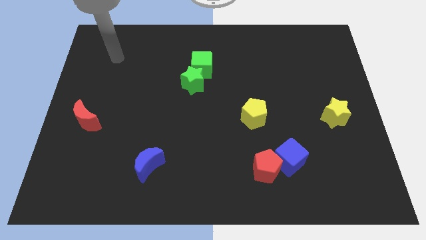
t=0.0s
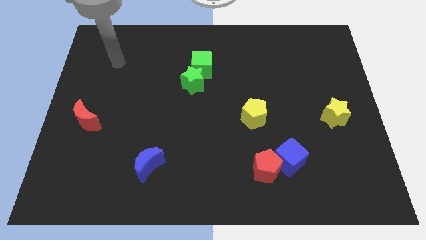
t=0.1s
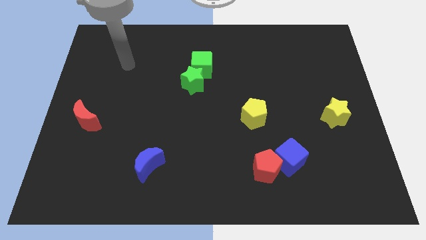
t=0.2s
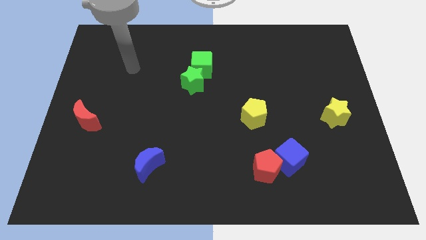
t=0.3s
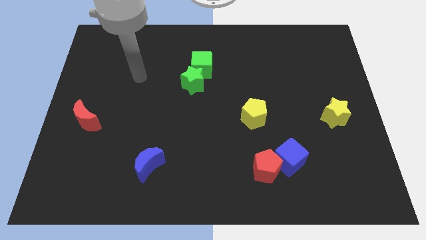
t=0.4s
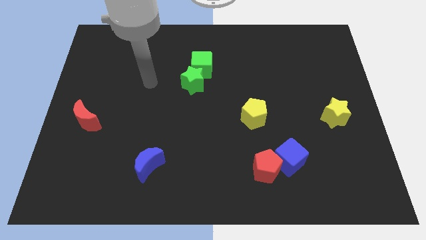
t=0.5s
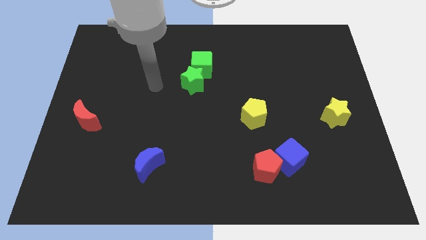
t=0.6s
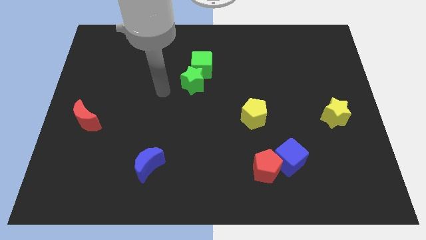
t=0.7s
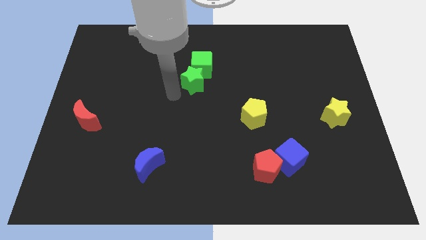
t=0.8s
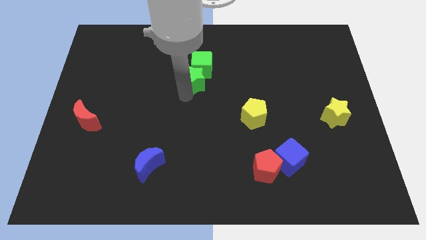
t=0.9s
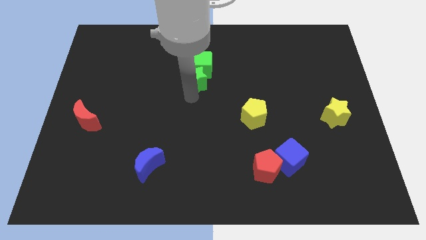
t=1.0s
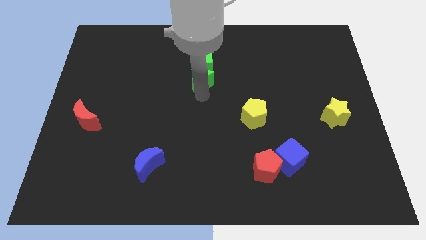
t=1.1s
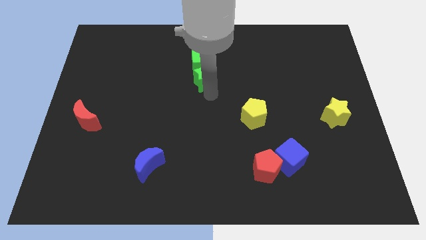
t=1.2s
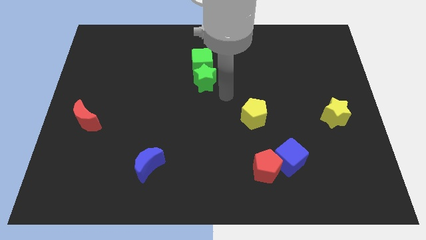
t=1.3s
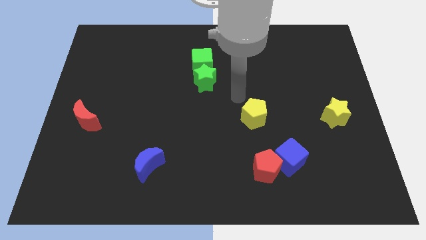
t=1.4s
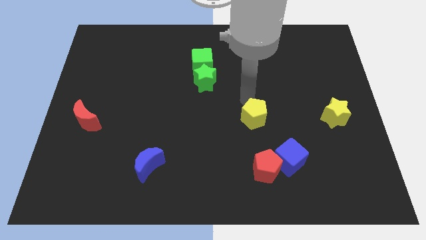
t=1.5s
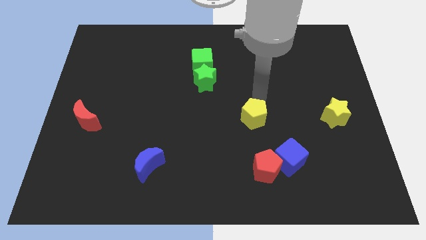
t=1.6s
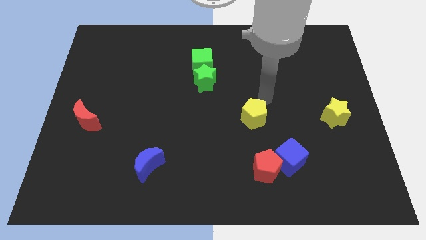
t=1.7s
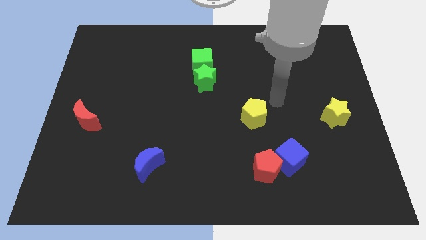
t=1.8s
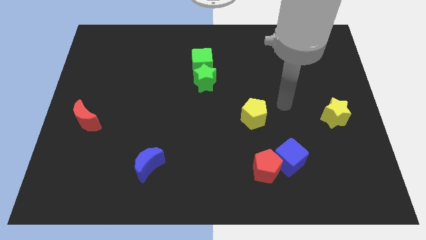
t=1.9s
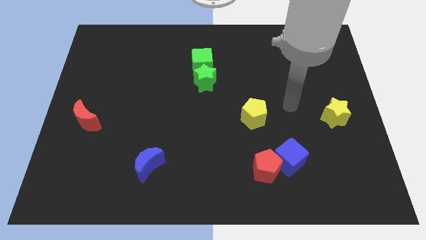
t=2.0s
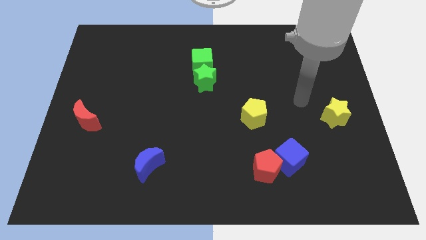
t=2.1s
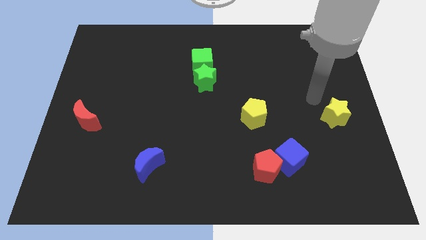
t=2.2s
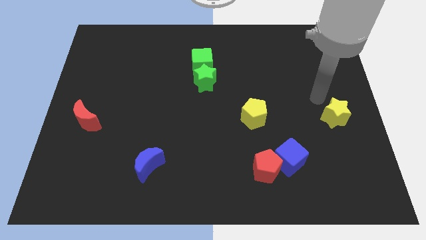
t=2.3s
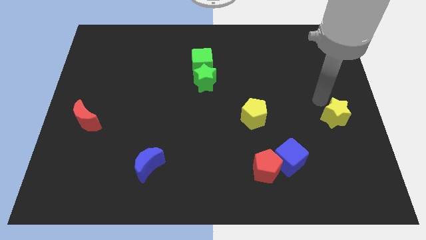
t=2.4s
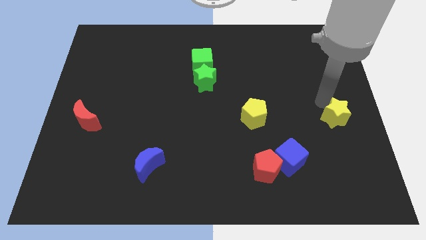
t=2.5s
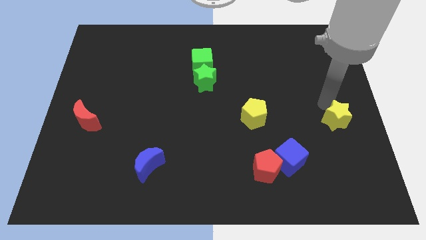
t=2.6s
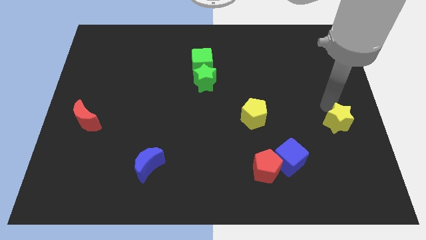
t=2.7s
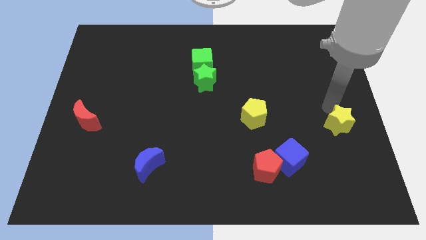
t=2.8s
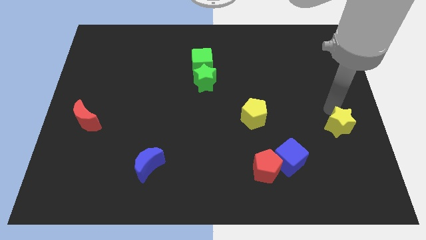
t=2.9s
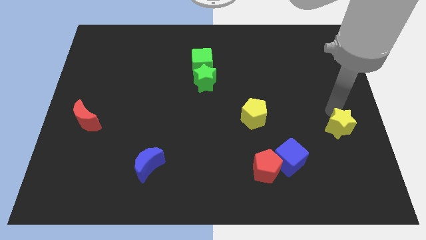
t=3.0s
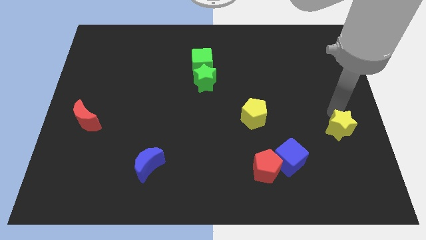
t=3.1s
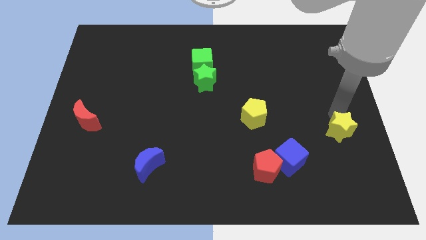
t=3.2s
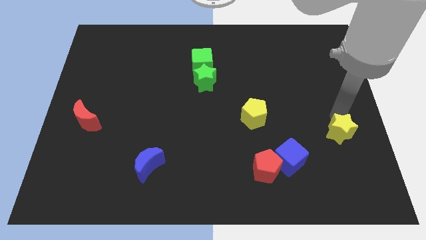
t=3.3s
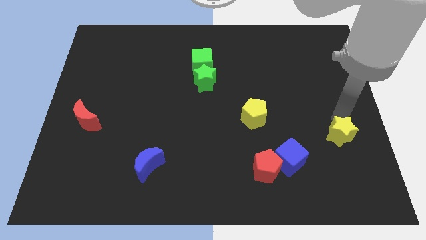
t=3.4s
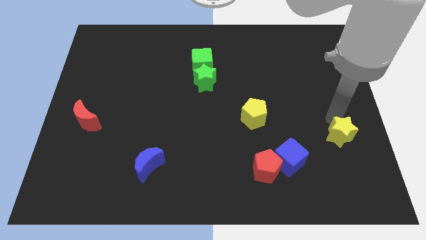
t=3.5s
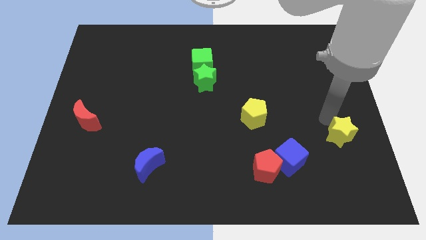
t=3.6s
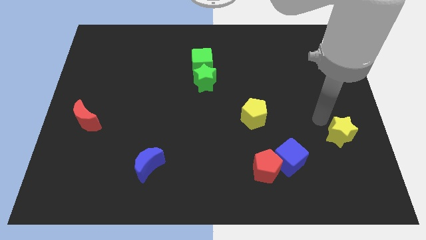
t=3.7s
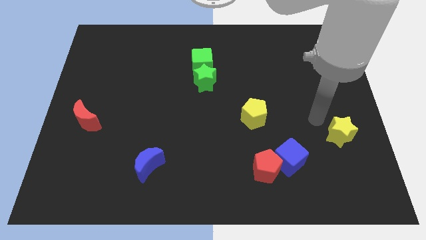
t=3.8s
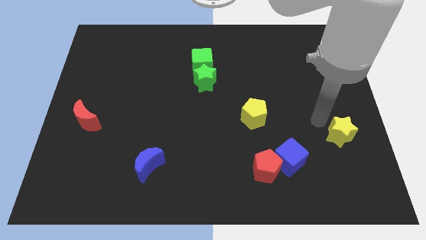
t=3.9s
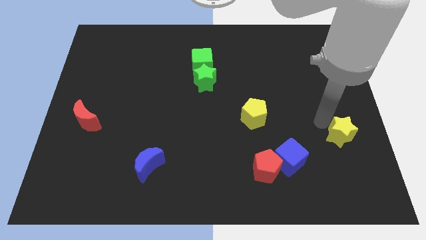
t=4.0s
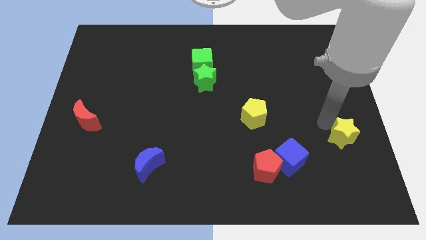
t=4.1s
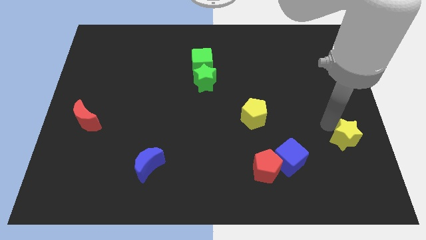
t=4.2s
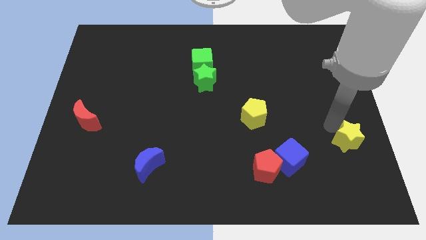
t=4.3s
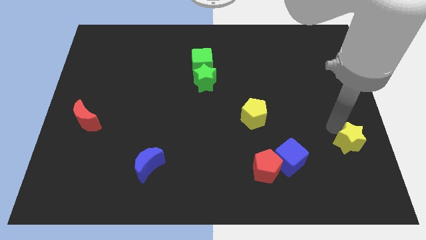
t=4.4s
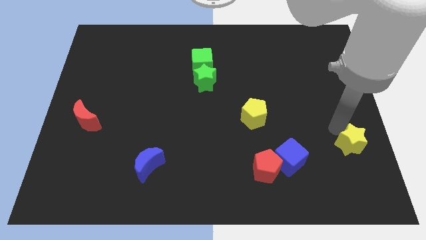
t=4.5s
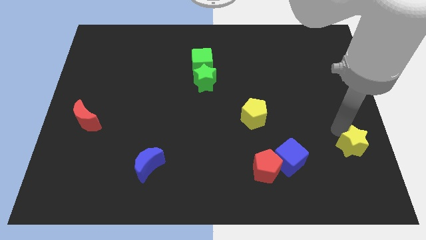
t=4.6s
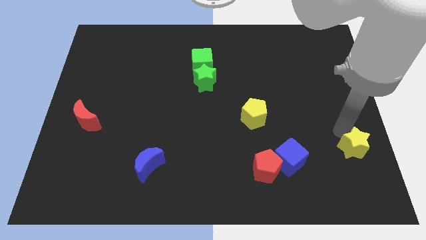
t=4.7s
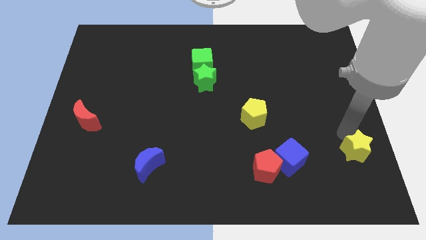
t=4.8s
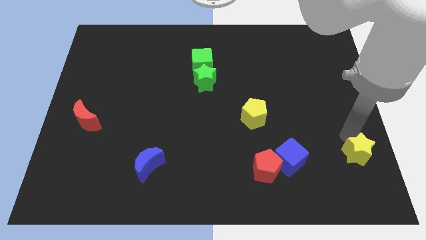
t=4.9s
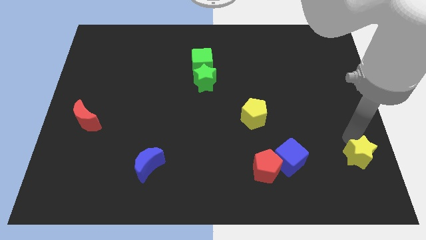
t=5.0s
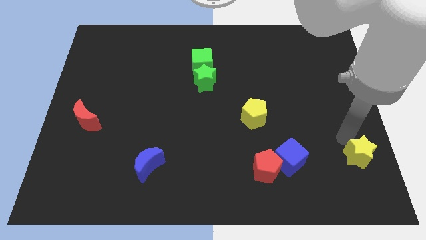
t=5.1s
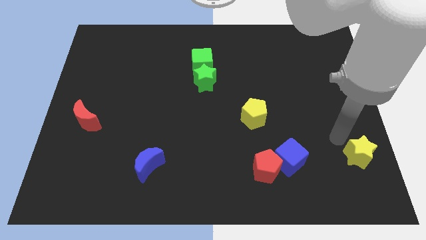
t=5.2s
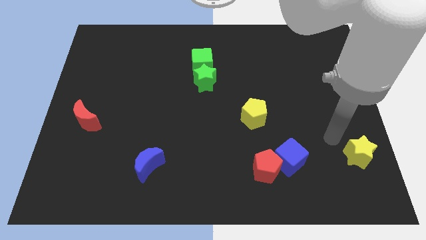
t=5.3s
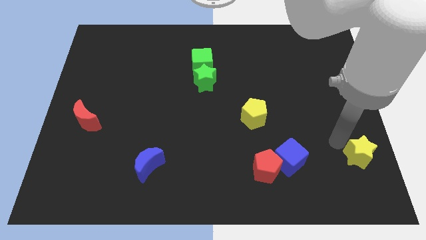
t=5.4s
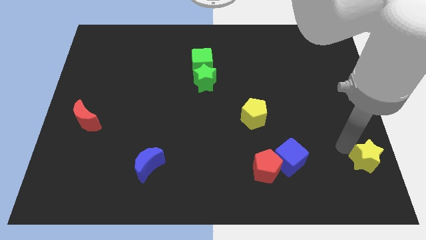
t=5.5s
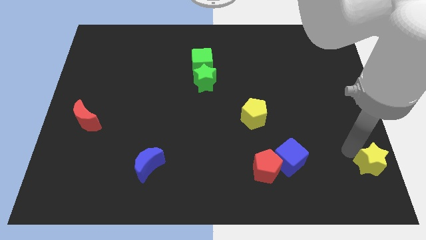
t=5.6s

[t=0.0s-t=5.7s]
move the yellow star to the bottom right

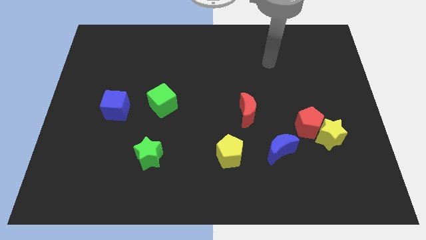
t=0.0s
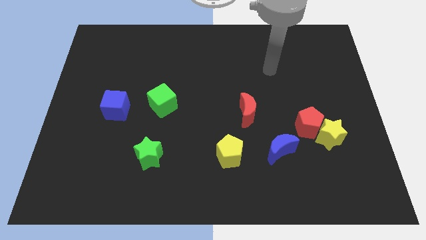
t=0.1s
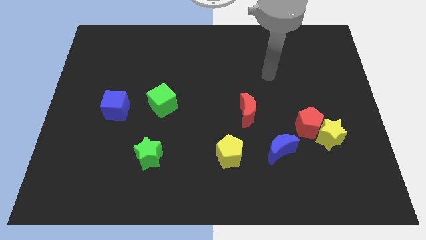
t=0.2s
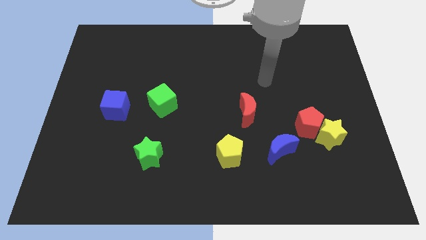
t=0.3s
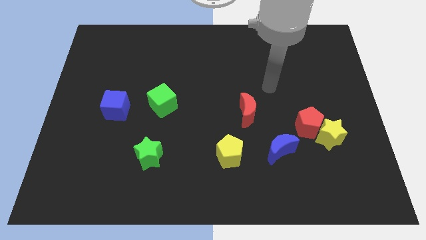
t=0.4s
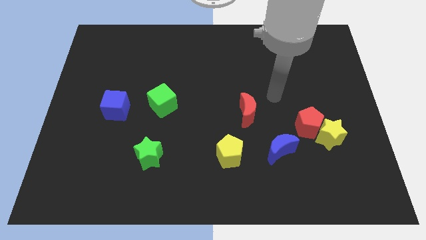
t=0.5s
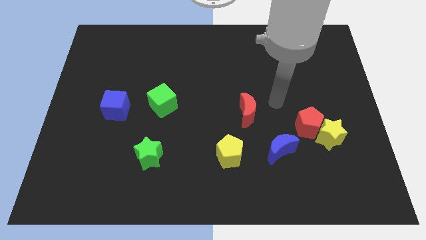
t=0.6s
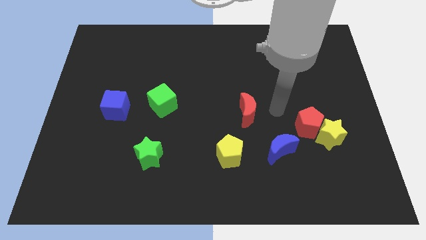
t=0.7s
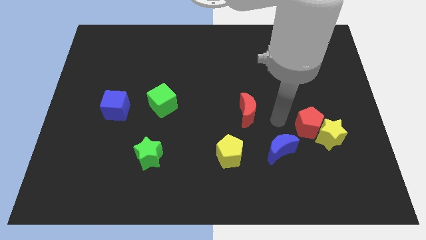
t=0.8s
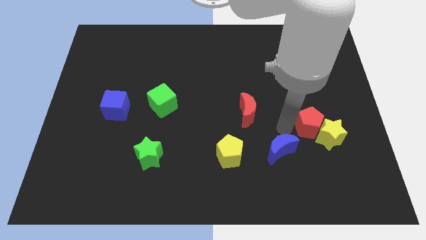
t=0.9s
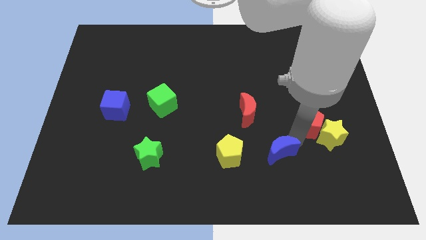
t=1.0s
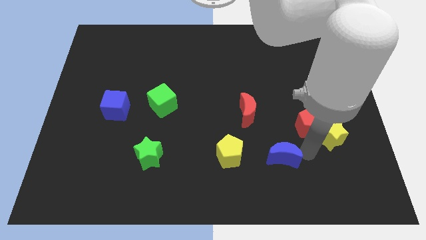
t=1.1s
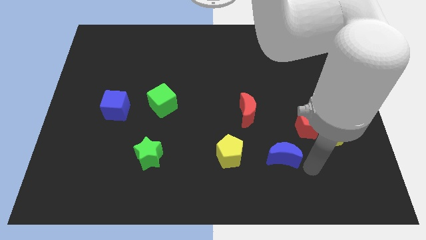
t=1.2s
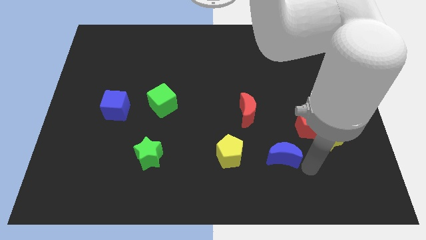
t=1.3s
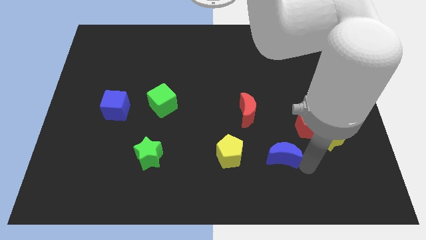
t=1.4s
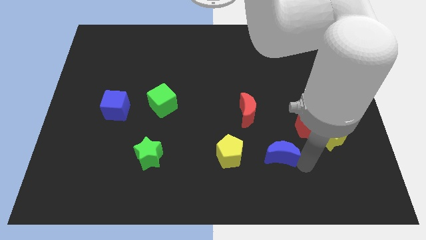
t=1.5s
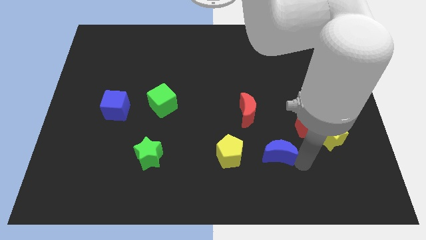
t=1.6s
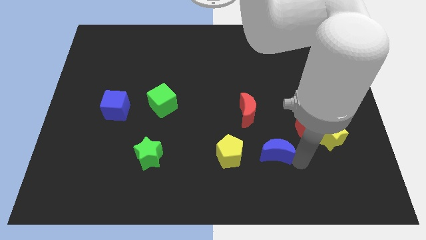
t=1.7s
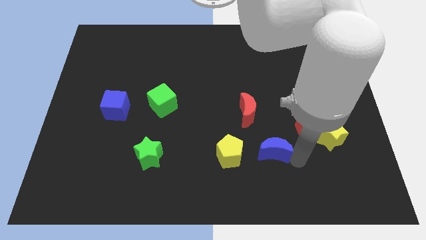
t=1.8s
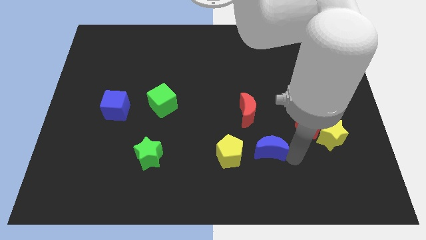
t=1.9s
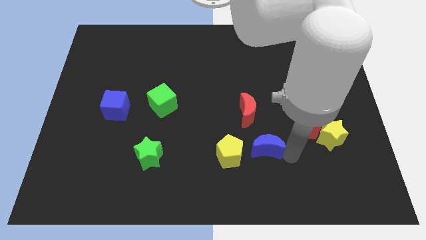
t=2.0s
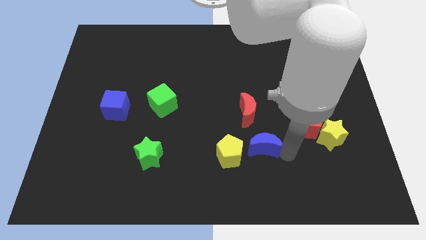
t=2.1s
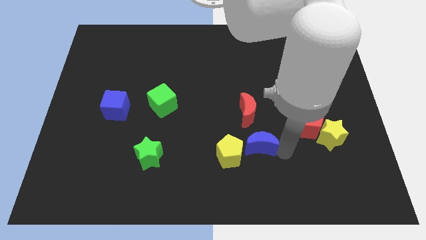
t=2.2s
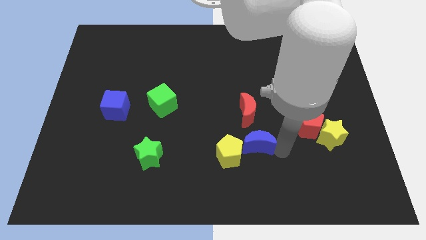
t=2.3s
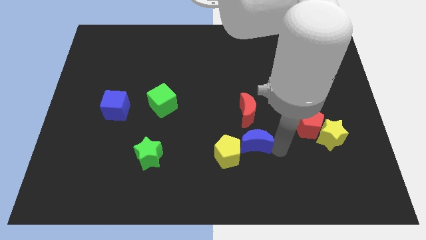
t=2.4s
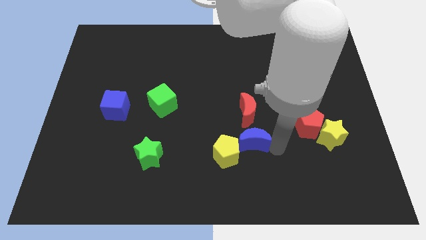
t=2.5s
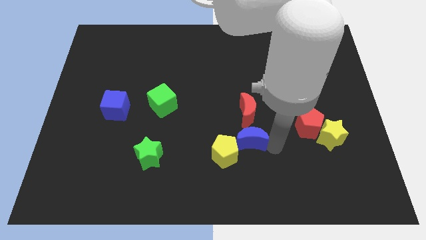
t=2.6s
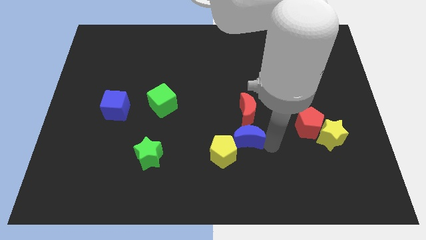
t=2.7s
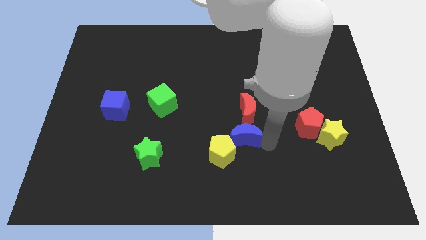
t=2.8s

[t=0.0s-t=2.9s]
slide the blue moon to the center
